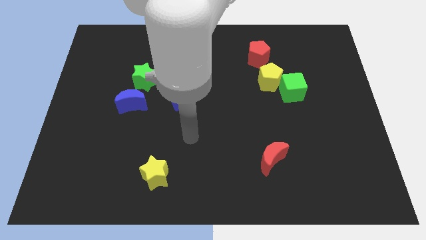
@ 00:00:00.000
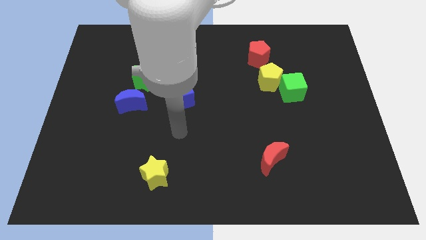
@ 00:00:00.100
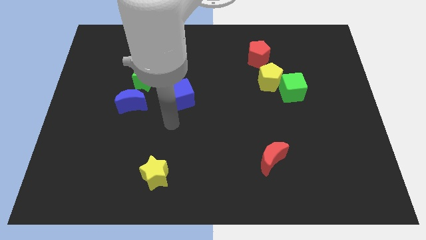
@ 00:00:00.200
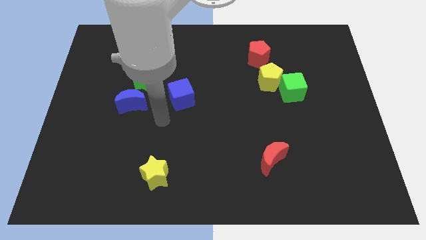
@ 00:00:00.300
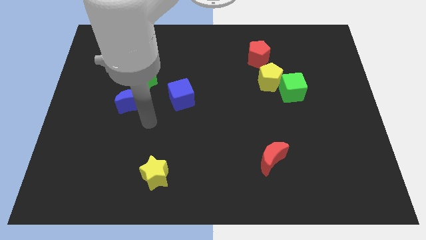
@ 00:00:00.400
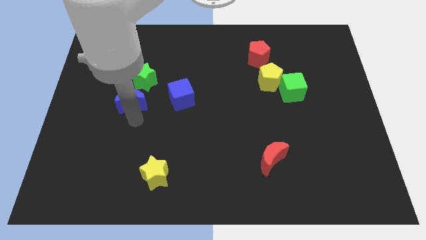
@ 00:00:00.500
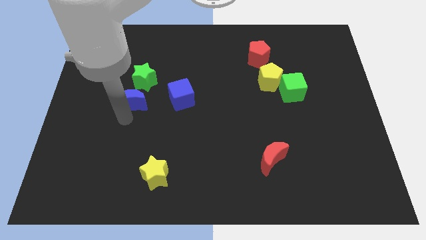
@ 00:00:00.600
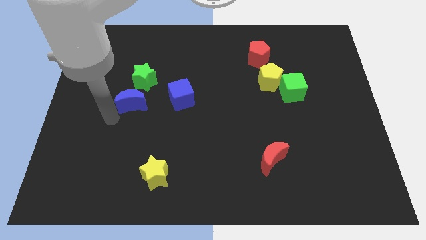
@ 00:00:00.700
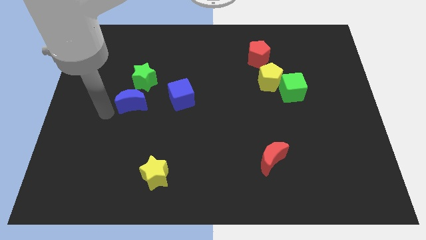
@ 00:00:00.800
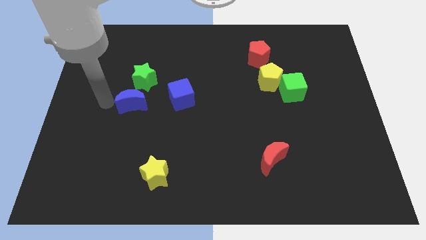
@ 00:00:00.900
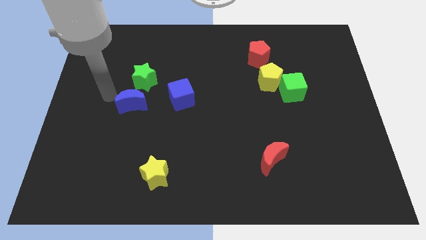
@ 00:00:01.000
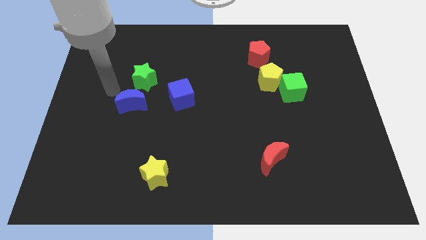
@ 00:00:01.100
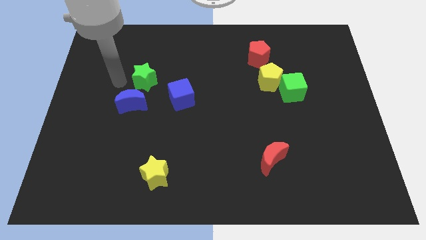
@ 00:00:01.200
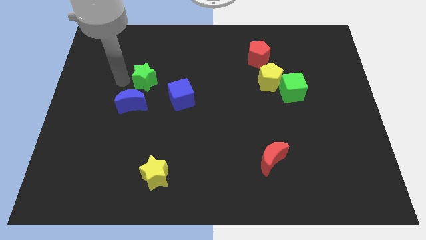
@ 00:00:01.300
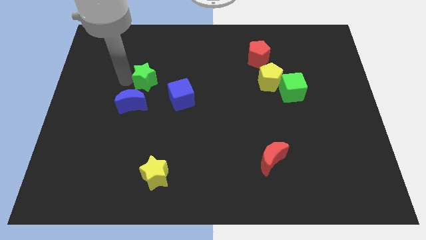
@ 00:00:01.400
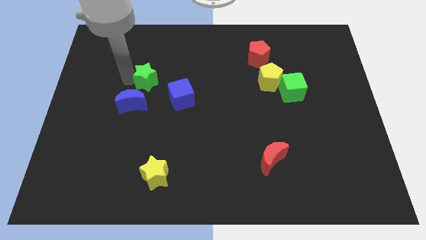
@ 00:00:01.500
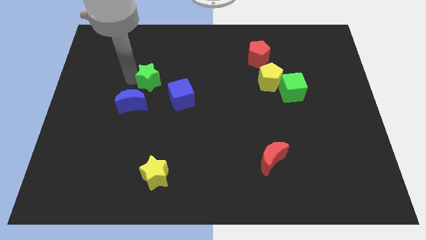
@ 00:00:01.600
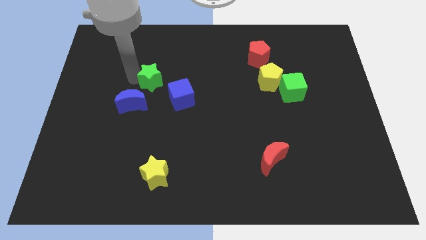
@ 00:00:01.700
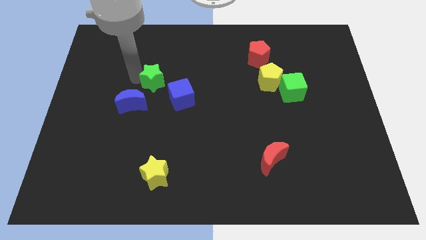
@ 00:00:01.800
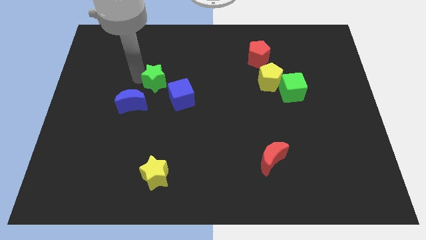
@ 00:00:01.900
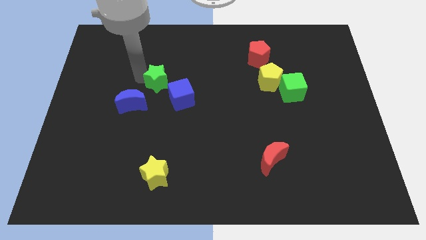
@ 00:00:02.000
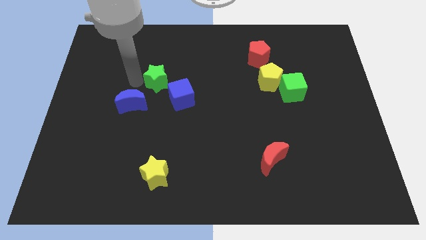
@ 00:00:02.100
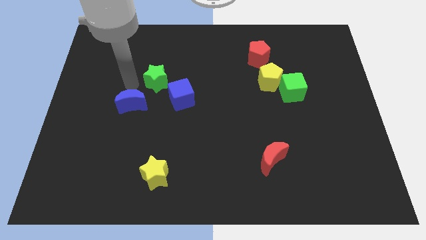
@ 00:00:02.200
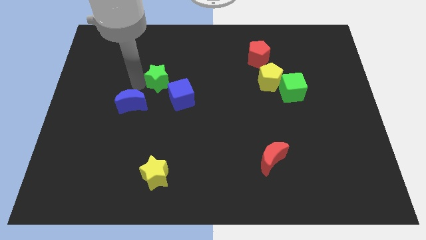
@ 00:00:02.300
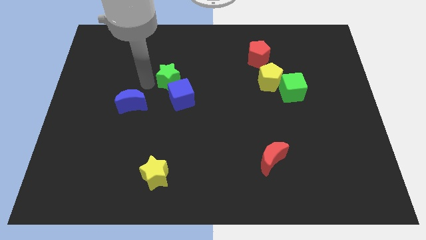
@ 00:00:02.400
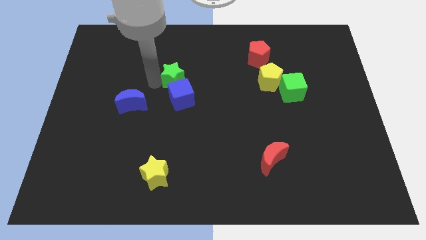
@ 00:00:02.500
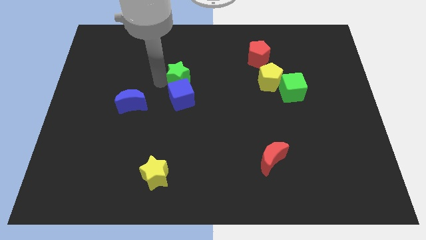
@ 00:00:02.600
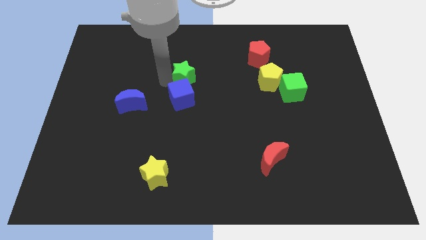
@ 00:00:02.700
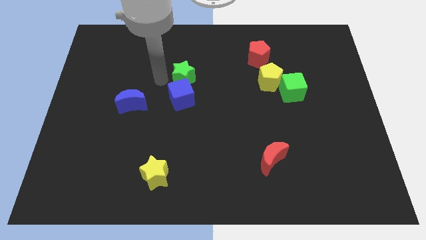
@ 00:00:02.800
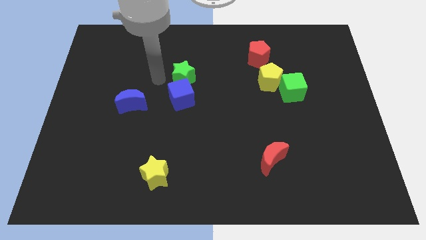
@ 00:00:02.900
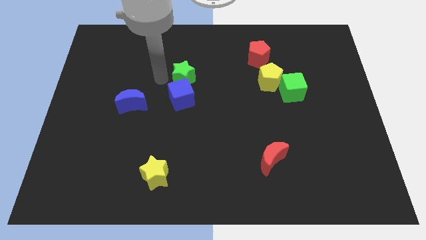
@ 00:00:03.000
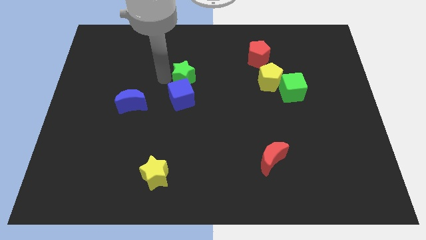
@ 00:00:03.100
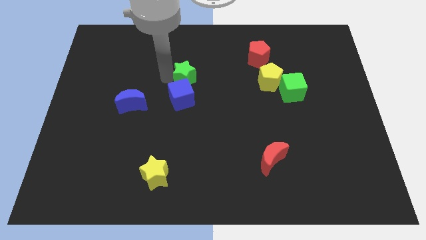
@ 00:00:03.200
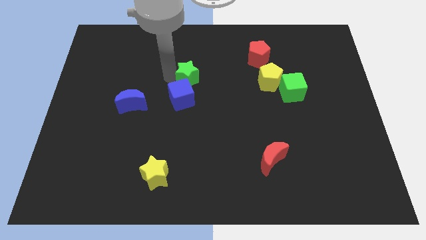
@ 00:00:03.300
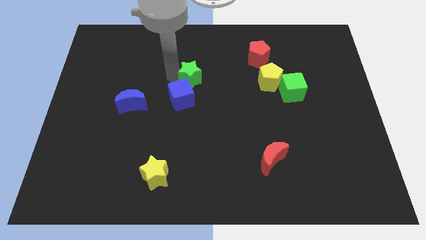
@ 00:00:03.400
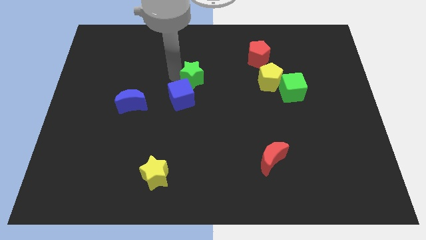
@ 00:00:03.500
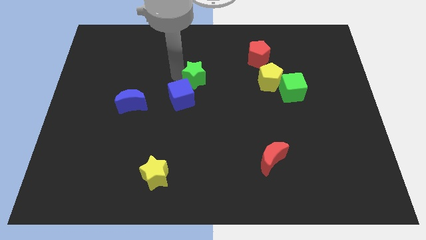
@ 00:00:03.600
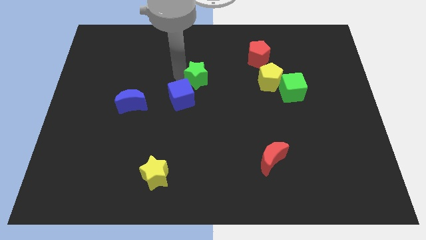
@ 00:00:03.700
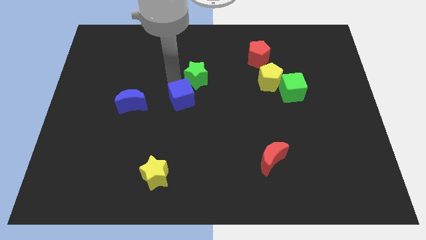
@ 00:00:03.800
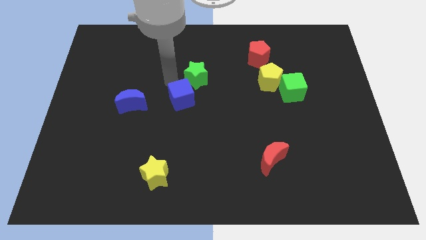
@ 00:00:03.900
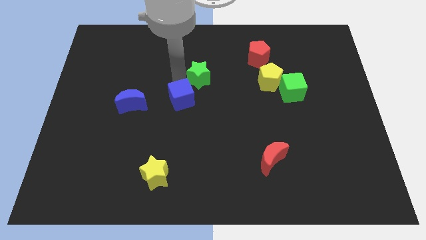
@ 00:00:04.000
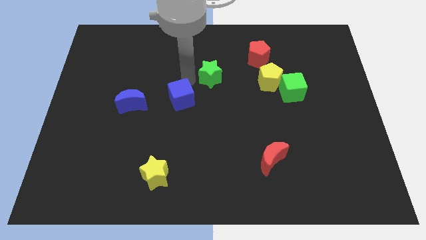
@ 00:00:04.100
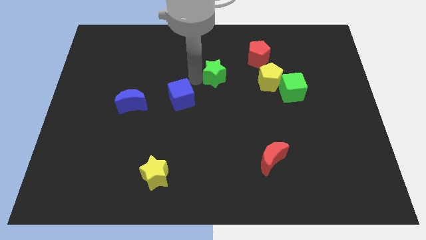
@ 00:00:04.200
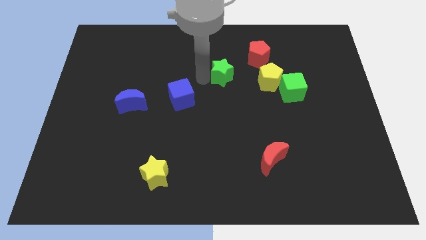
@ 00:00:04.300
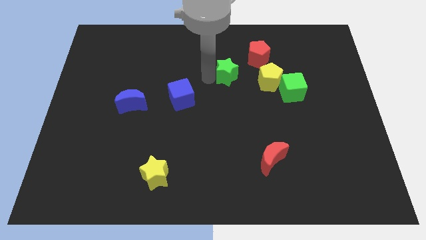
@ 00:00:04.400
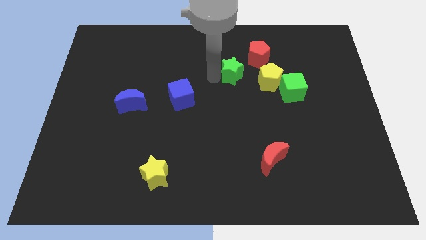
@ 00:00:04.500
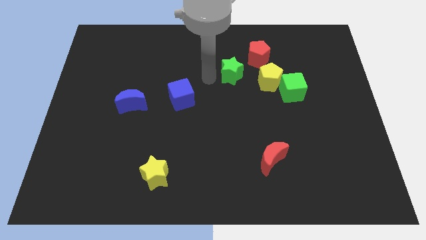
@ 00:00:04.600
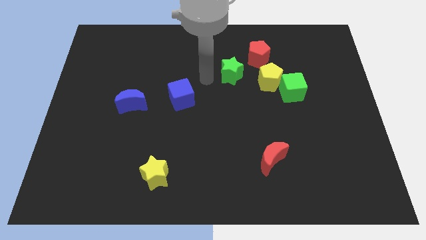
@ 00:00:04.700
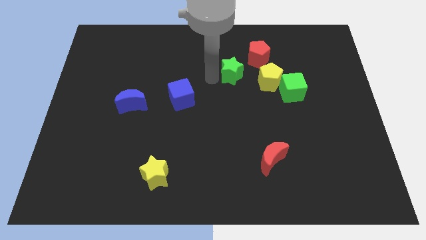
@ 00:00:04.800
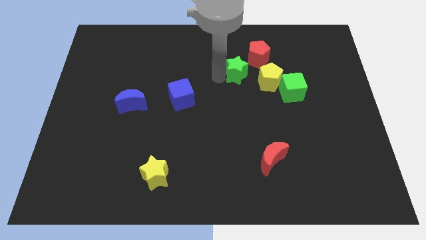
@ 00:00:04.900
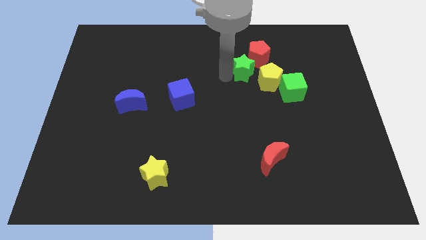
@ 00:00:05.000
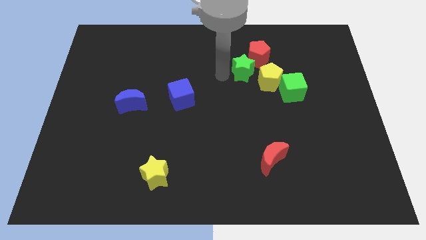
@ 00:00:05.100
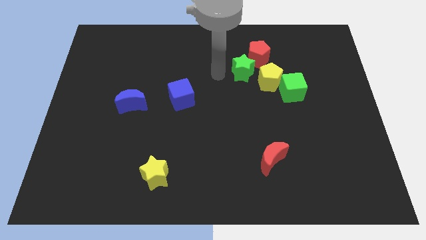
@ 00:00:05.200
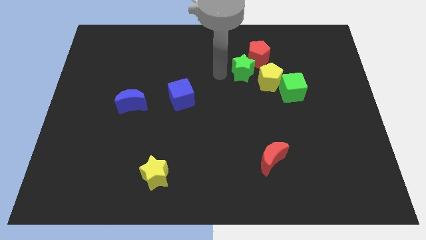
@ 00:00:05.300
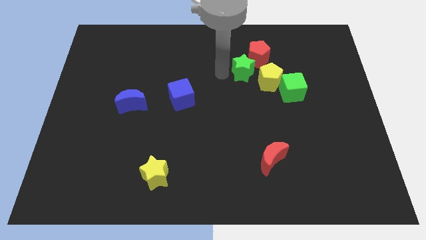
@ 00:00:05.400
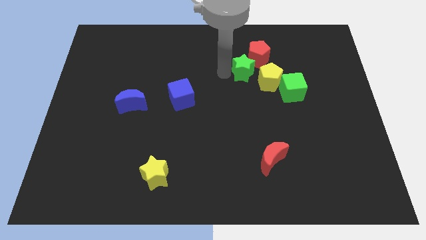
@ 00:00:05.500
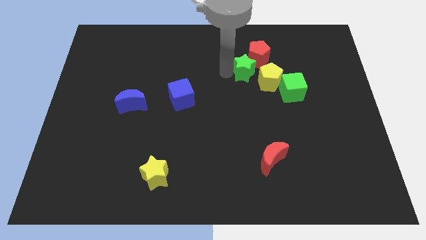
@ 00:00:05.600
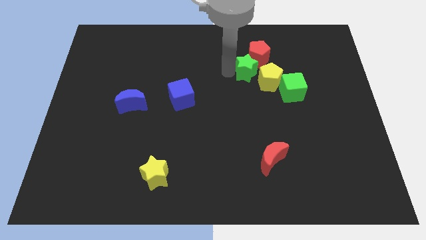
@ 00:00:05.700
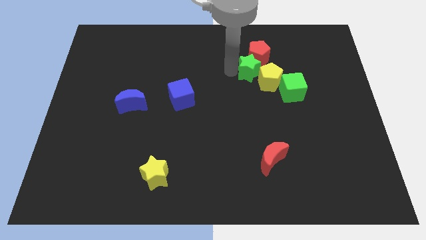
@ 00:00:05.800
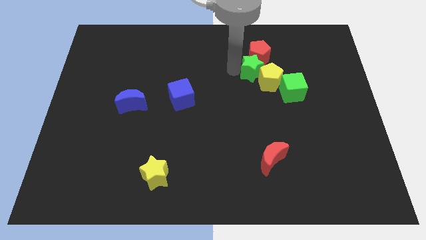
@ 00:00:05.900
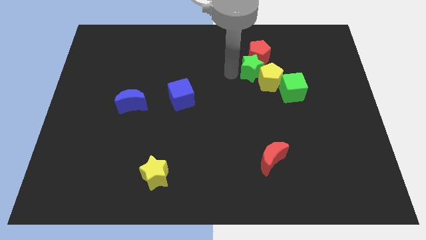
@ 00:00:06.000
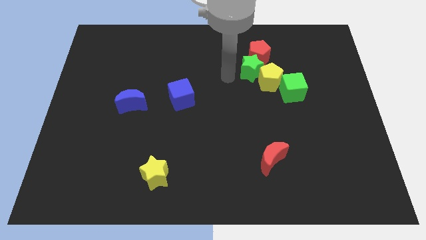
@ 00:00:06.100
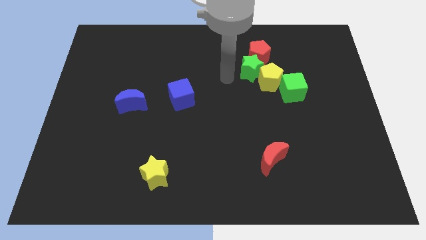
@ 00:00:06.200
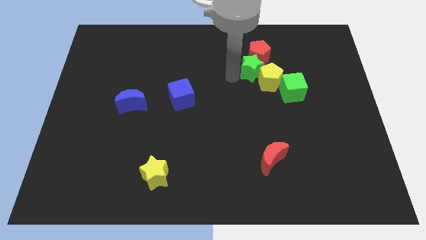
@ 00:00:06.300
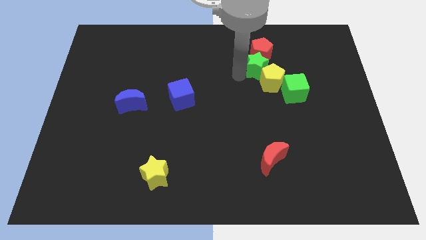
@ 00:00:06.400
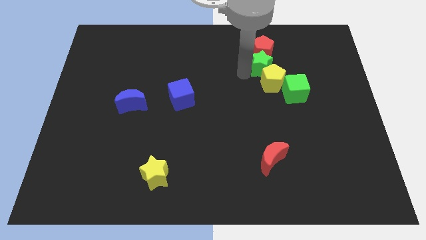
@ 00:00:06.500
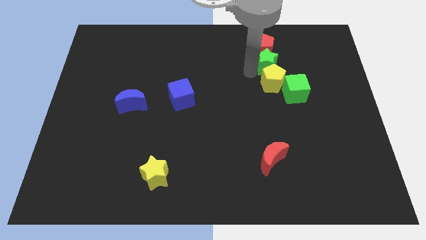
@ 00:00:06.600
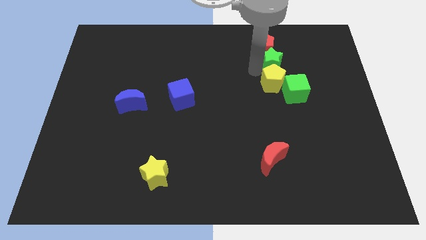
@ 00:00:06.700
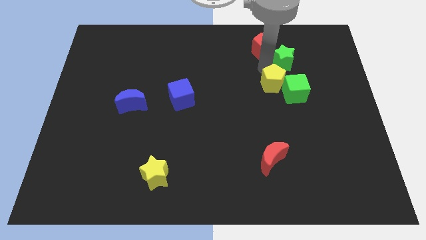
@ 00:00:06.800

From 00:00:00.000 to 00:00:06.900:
slide the green star just right of the red pentagon

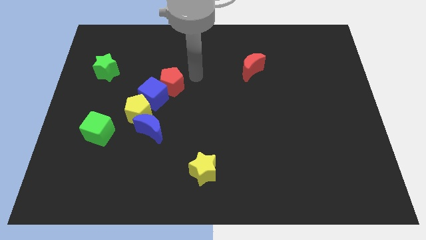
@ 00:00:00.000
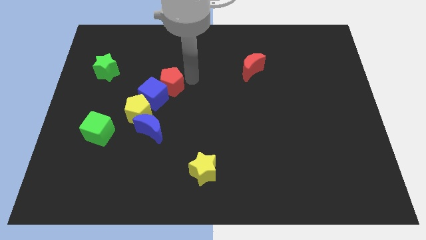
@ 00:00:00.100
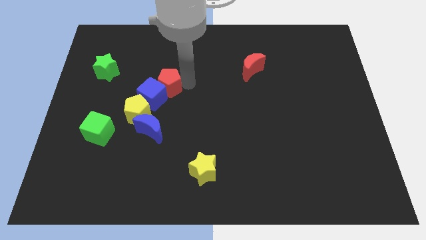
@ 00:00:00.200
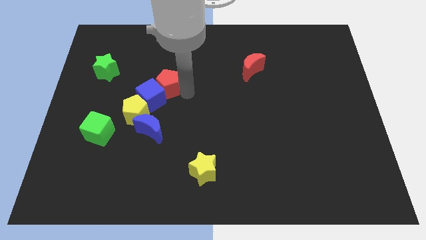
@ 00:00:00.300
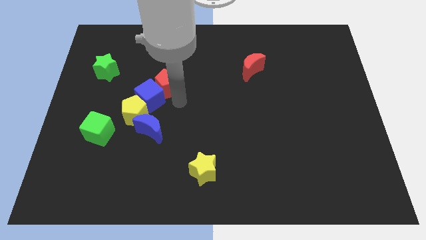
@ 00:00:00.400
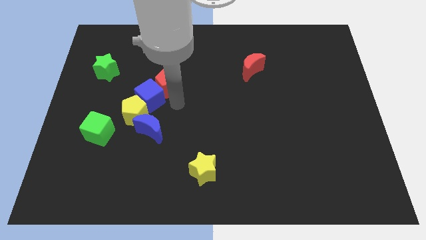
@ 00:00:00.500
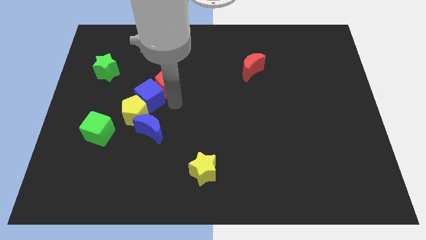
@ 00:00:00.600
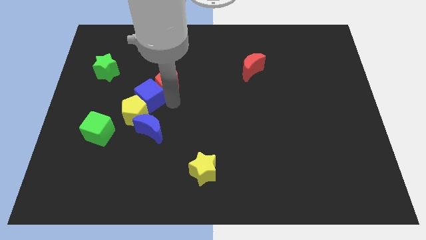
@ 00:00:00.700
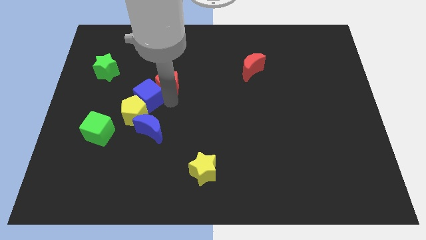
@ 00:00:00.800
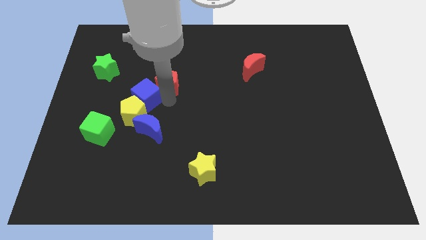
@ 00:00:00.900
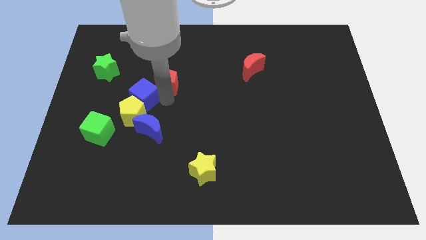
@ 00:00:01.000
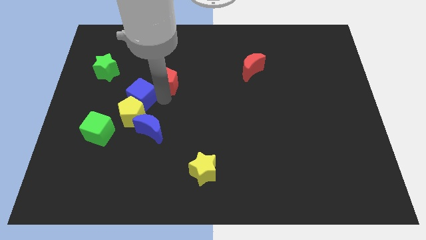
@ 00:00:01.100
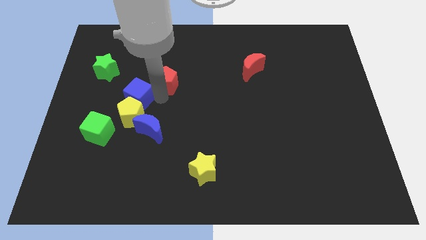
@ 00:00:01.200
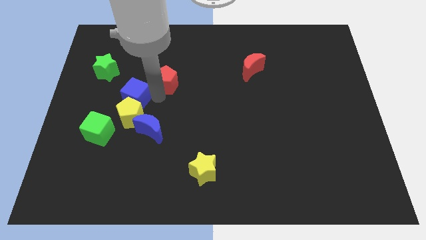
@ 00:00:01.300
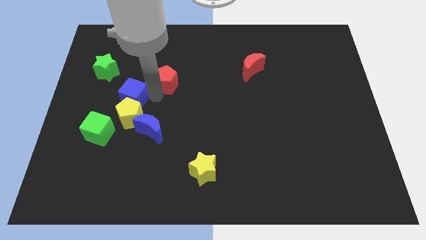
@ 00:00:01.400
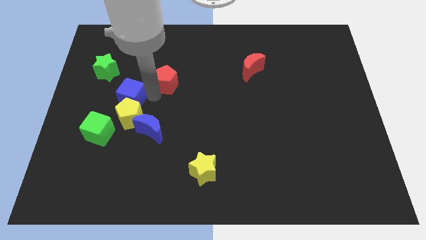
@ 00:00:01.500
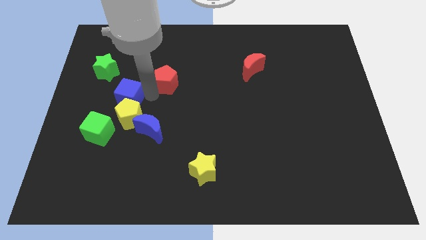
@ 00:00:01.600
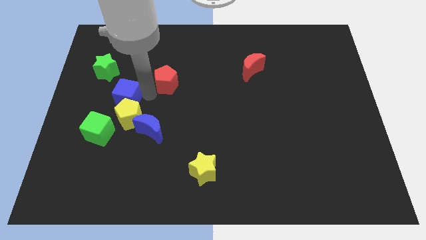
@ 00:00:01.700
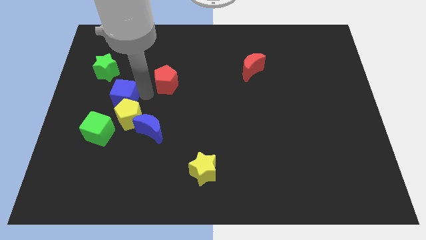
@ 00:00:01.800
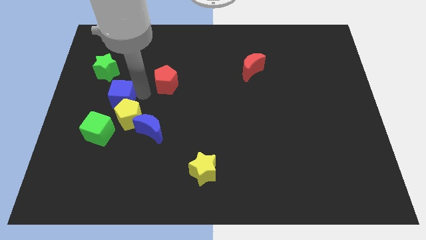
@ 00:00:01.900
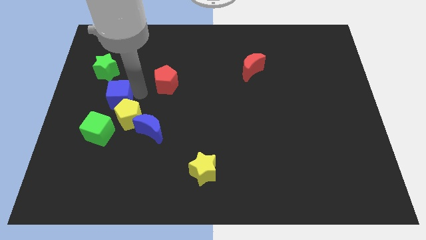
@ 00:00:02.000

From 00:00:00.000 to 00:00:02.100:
push the blue cube to the bottom of the green star
